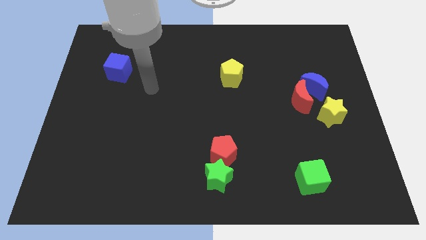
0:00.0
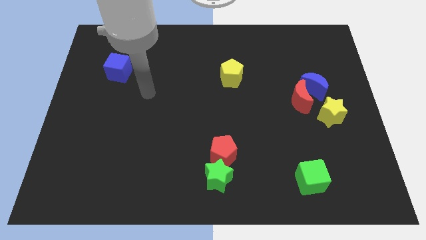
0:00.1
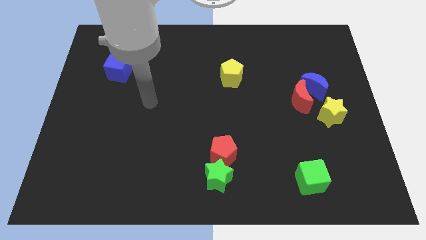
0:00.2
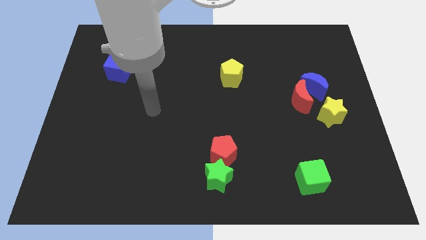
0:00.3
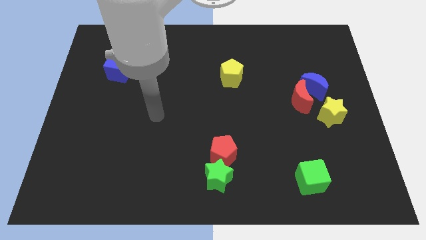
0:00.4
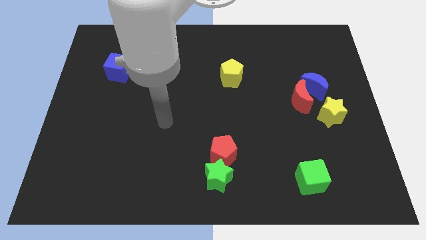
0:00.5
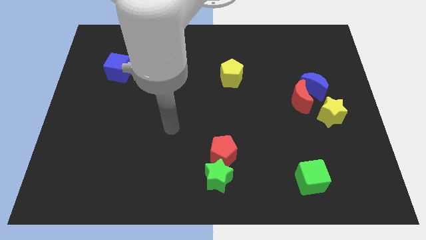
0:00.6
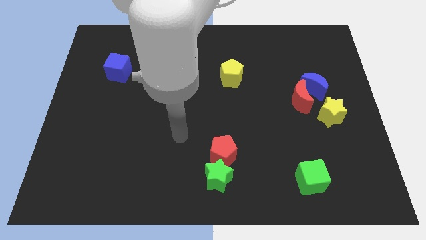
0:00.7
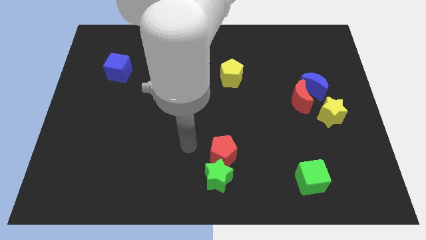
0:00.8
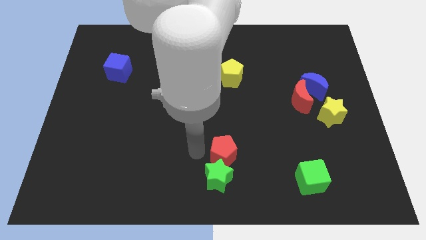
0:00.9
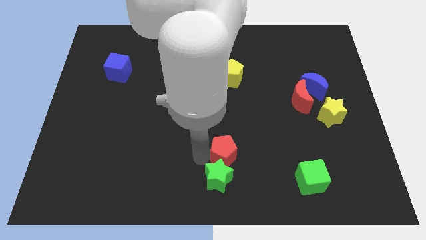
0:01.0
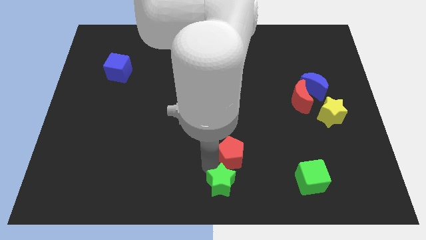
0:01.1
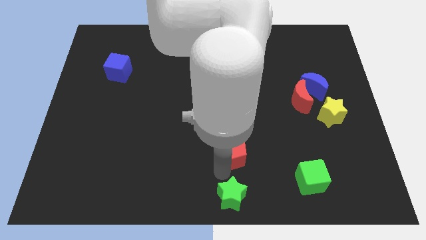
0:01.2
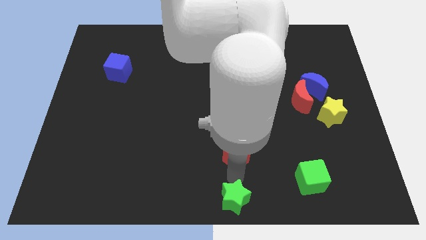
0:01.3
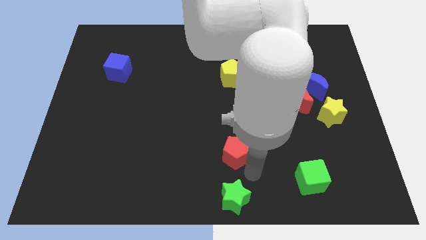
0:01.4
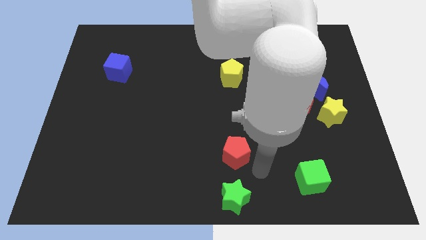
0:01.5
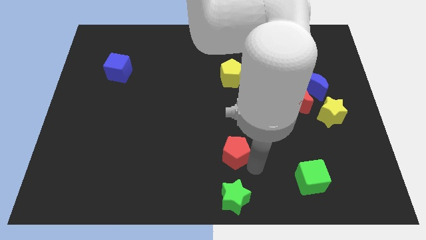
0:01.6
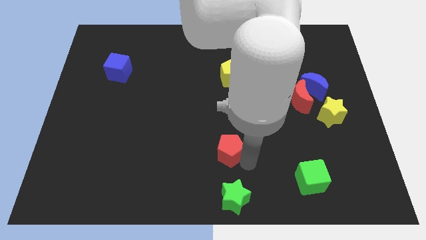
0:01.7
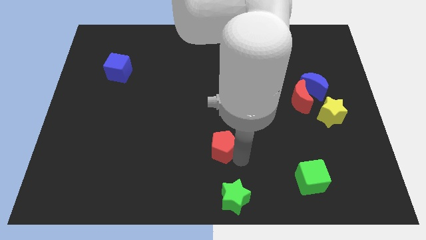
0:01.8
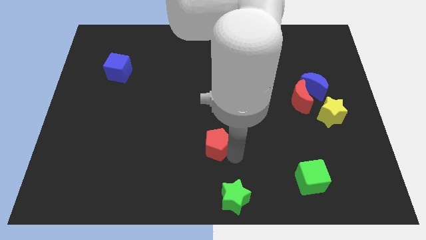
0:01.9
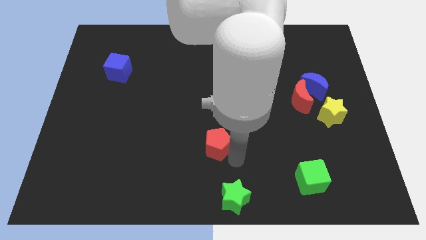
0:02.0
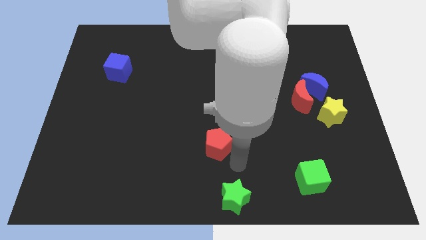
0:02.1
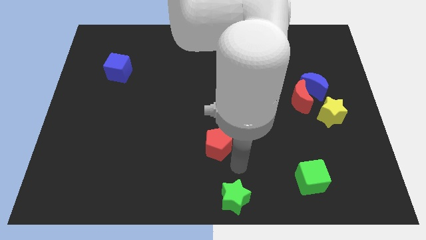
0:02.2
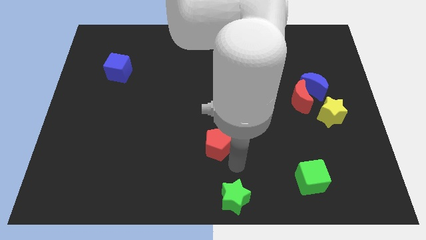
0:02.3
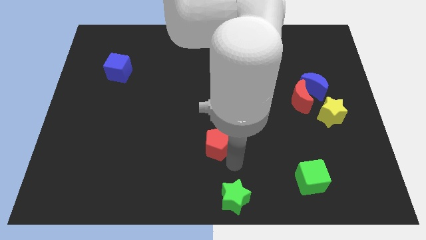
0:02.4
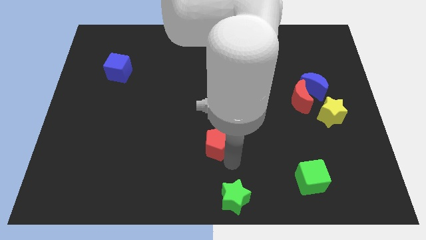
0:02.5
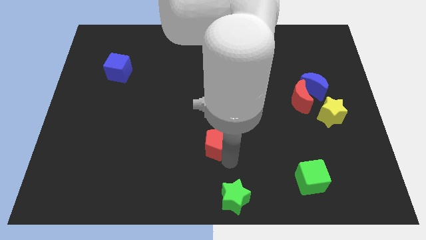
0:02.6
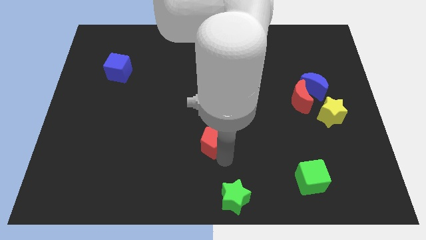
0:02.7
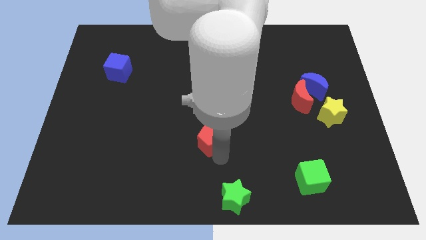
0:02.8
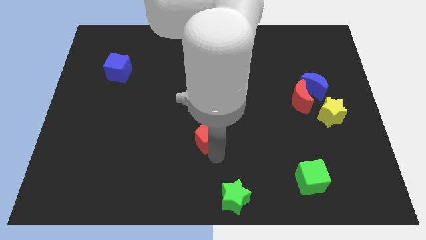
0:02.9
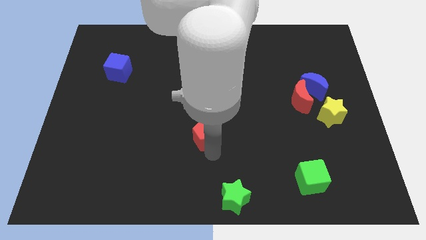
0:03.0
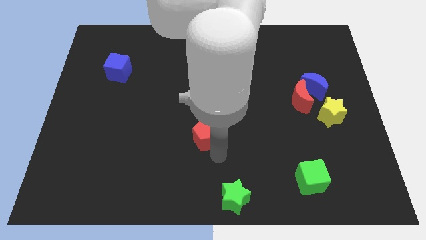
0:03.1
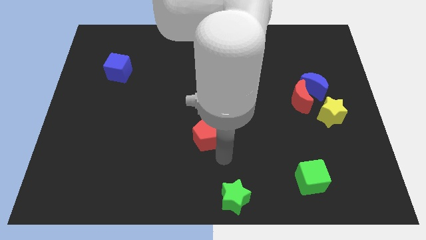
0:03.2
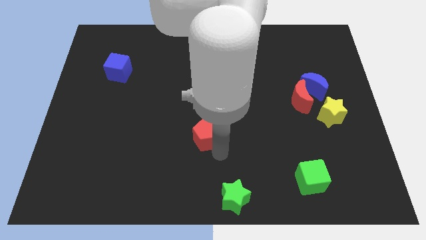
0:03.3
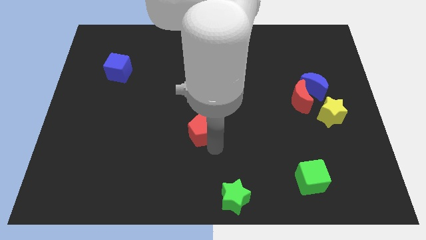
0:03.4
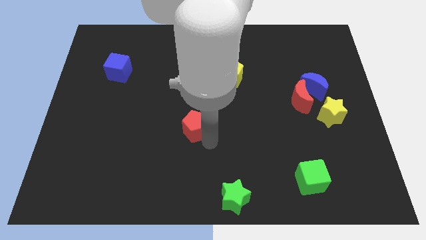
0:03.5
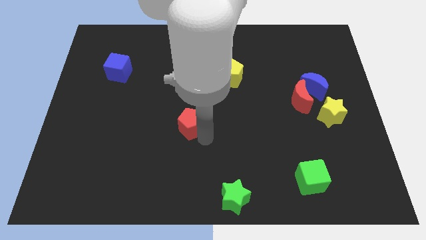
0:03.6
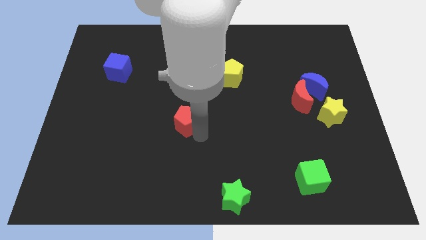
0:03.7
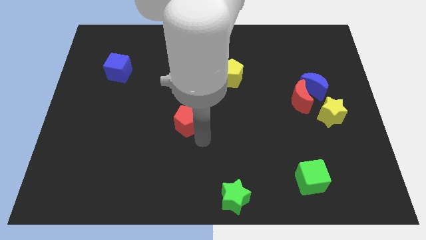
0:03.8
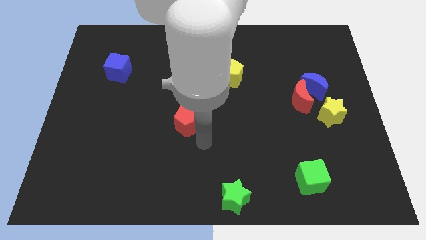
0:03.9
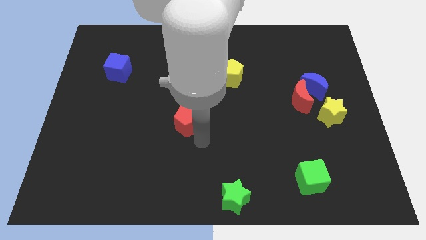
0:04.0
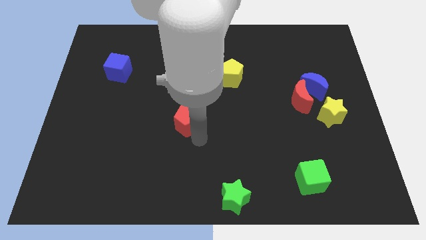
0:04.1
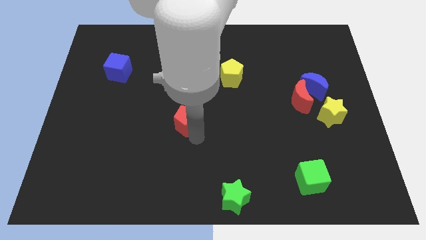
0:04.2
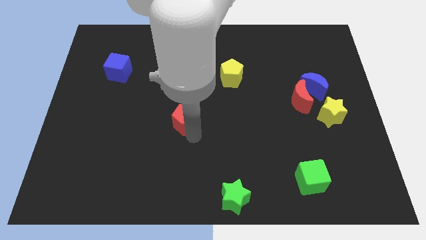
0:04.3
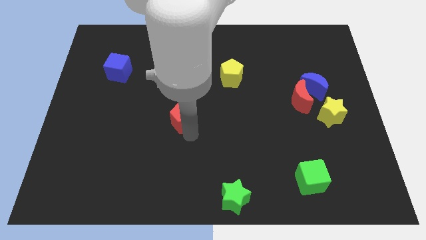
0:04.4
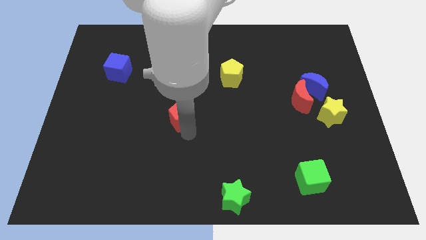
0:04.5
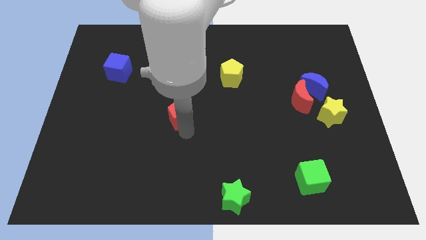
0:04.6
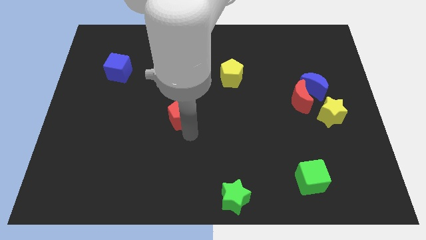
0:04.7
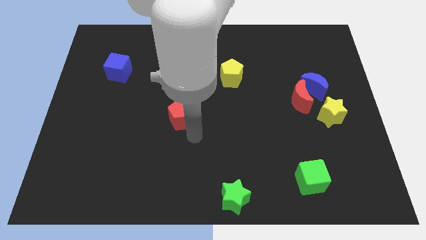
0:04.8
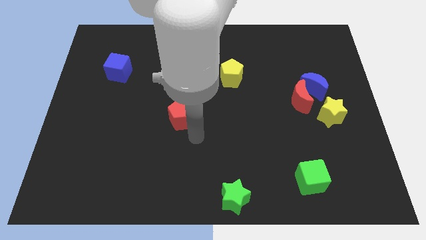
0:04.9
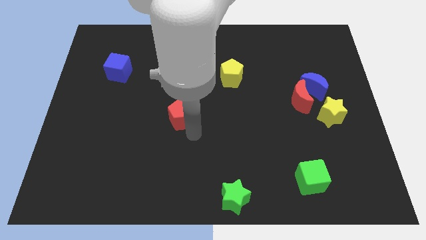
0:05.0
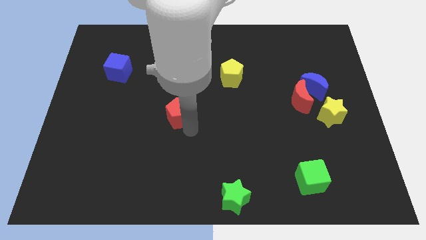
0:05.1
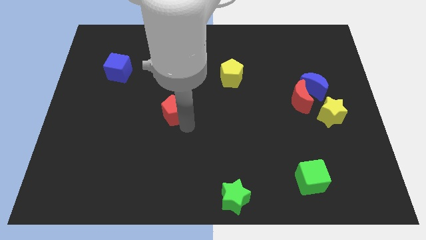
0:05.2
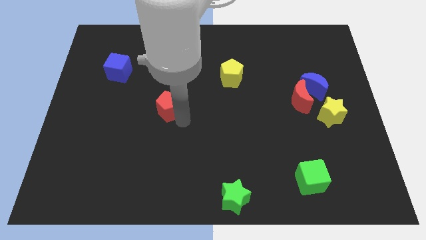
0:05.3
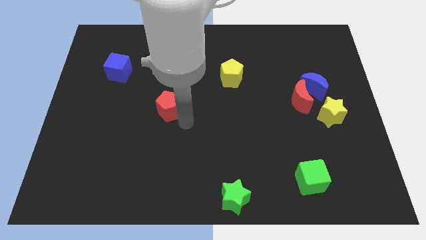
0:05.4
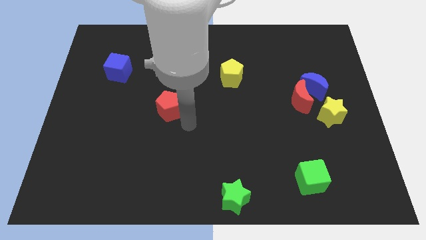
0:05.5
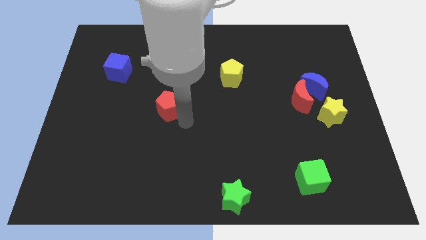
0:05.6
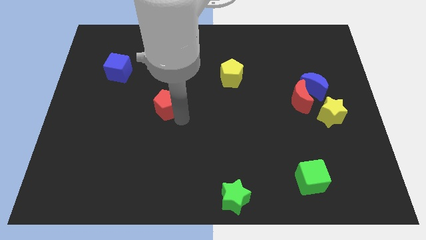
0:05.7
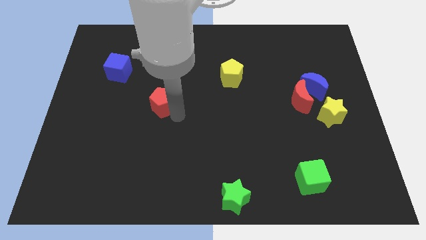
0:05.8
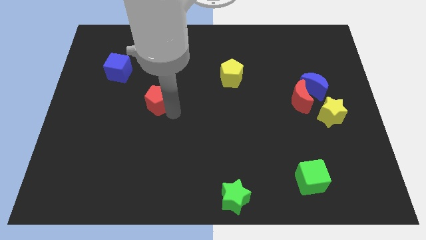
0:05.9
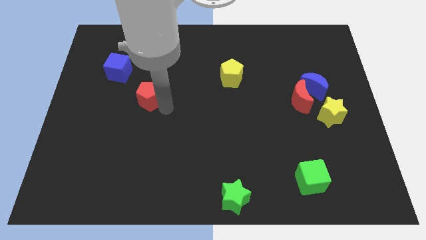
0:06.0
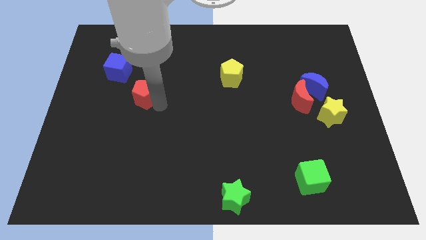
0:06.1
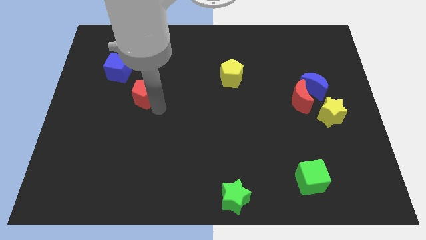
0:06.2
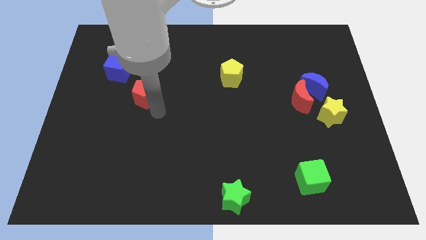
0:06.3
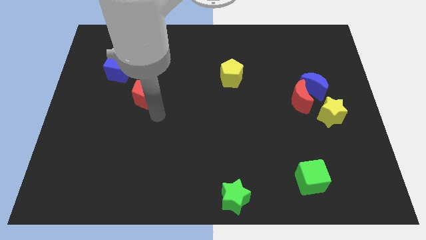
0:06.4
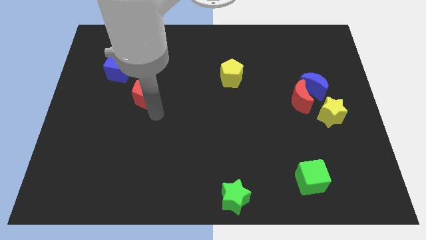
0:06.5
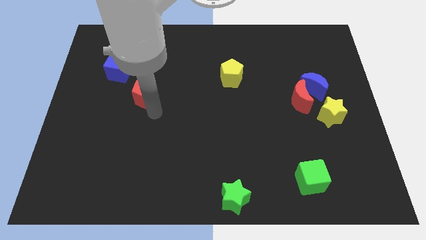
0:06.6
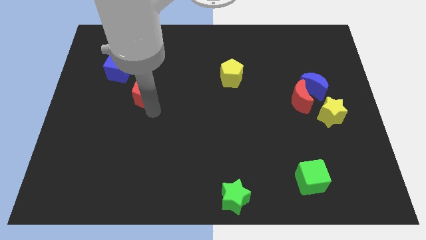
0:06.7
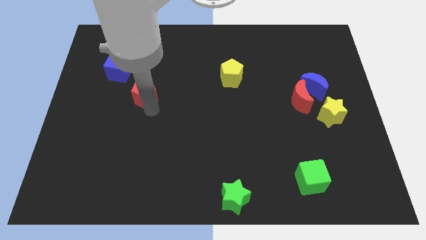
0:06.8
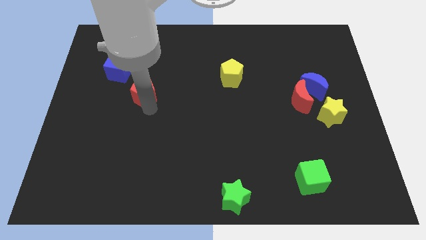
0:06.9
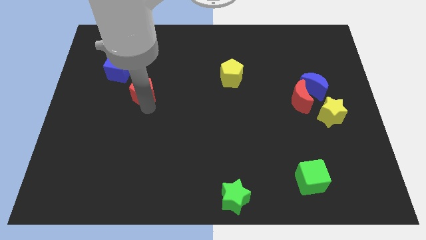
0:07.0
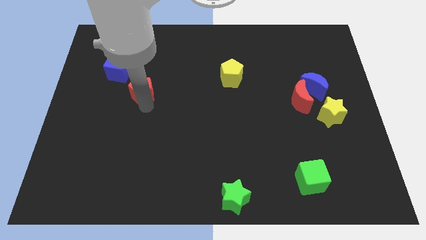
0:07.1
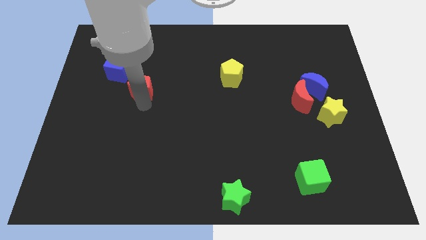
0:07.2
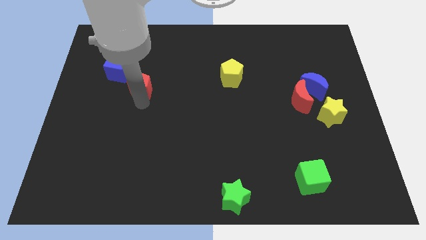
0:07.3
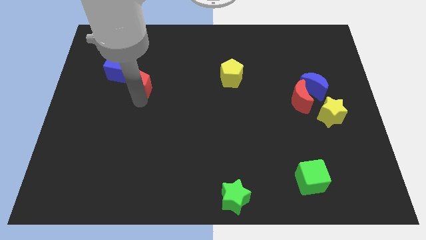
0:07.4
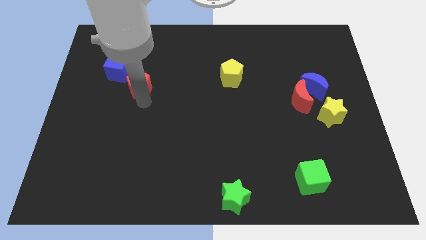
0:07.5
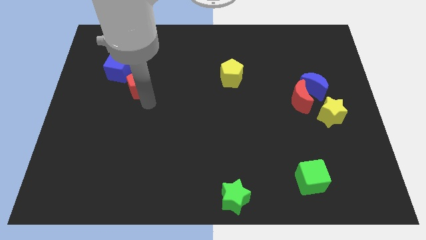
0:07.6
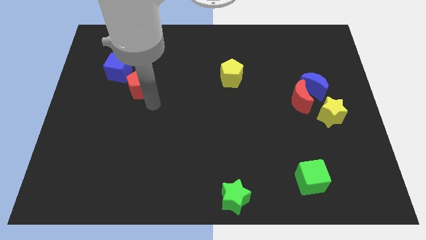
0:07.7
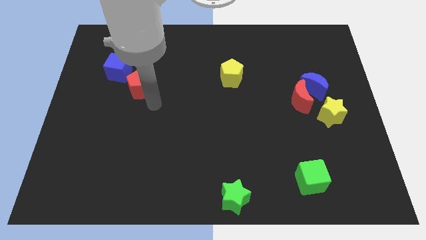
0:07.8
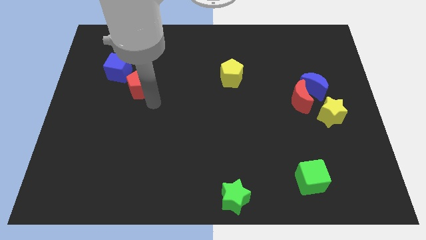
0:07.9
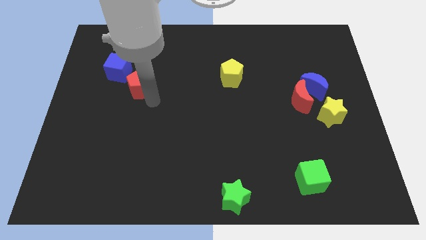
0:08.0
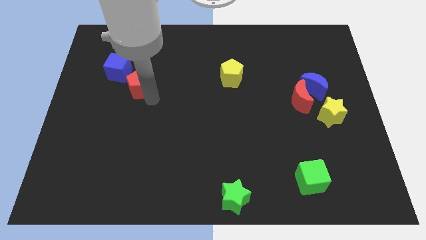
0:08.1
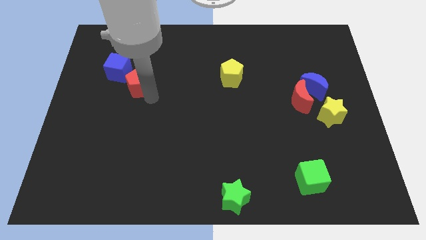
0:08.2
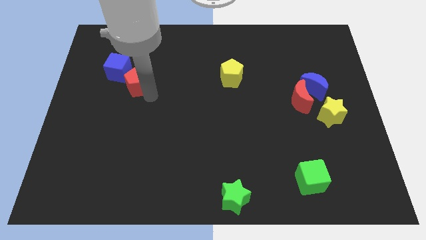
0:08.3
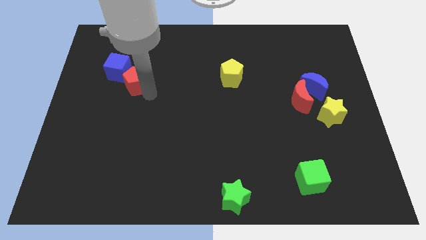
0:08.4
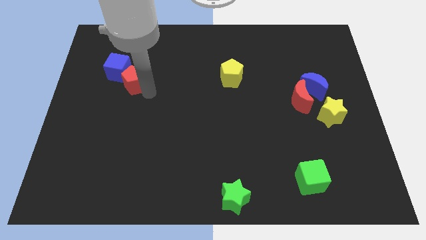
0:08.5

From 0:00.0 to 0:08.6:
move the red pentagon next to the blue cube
